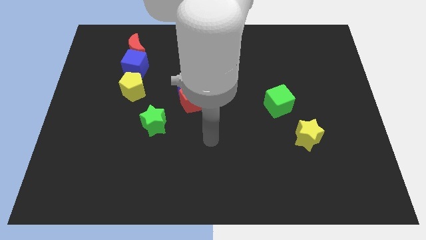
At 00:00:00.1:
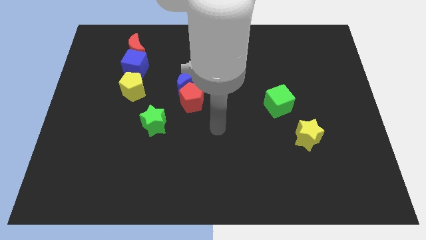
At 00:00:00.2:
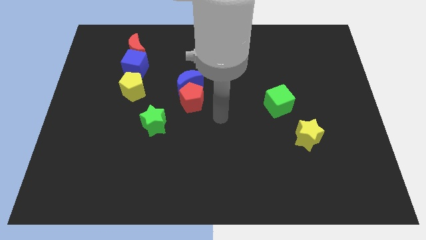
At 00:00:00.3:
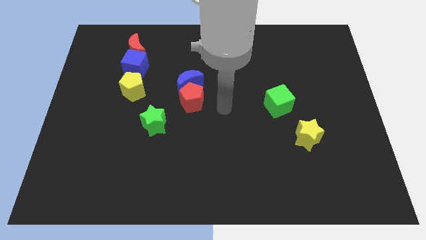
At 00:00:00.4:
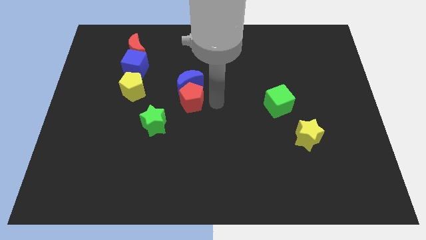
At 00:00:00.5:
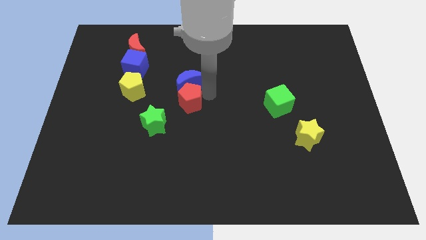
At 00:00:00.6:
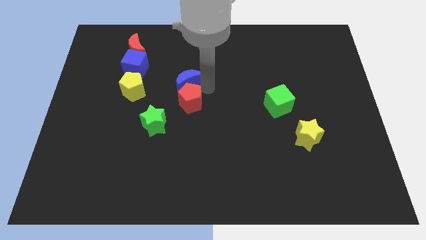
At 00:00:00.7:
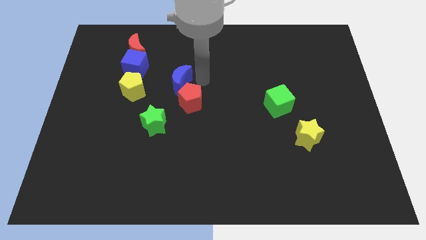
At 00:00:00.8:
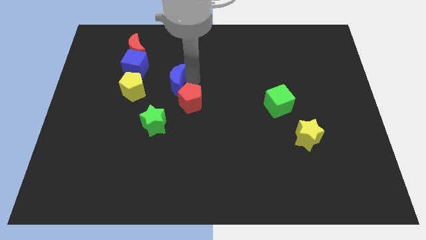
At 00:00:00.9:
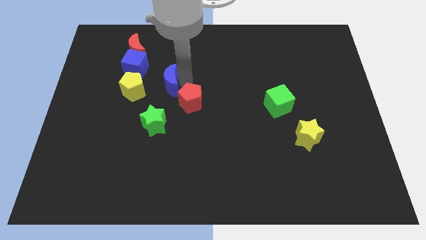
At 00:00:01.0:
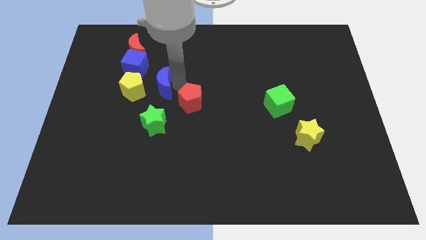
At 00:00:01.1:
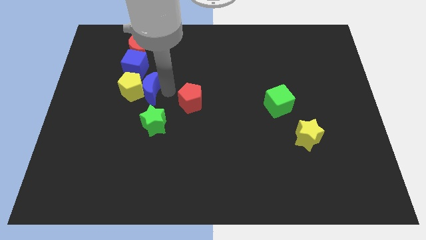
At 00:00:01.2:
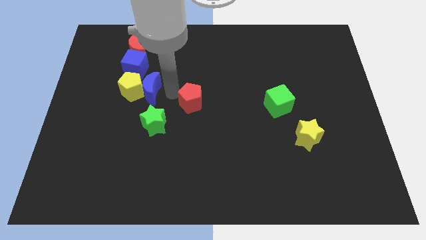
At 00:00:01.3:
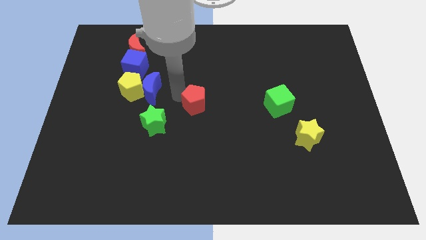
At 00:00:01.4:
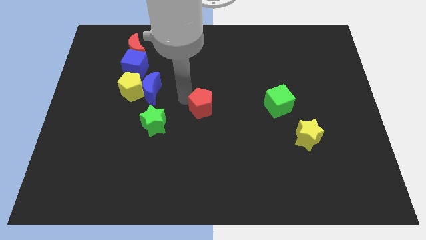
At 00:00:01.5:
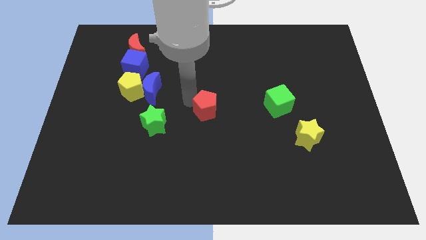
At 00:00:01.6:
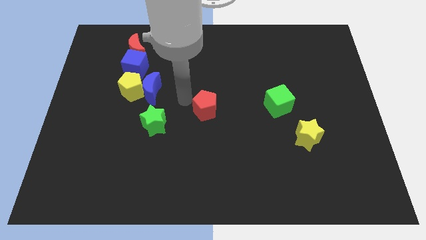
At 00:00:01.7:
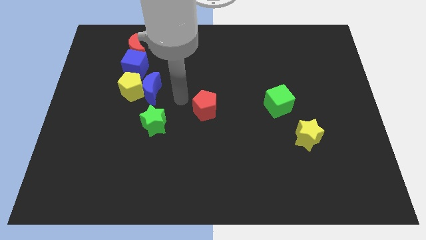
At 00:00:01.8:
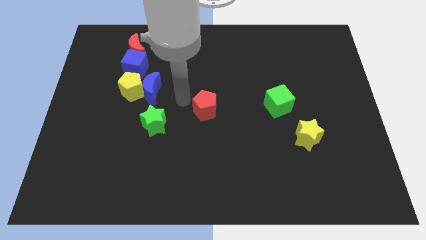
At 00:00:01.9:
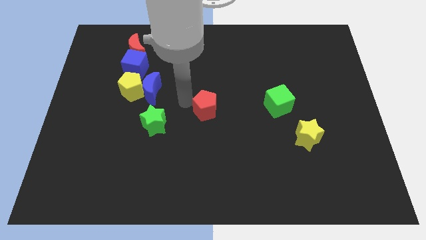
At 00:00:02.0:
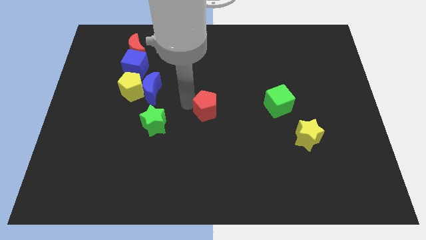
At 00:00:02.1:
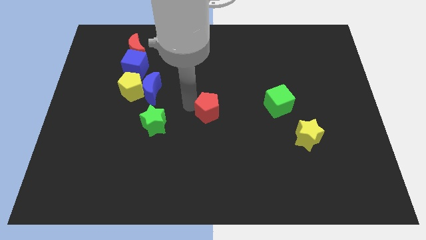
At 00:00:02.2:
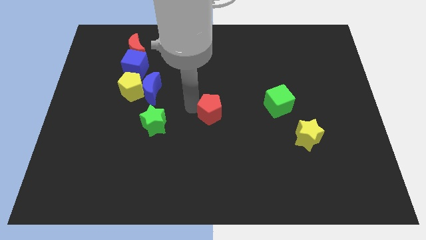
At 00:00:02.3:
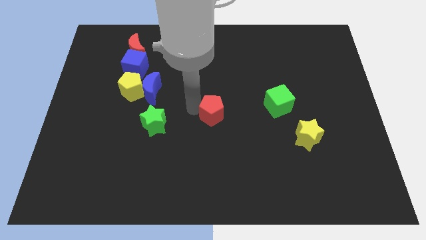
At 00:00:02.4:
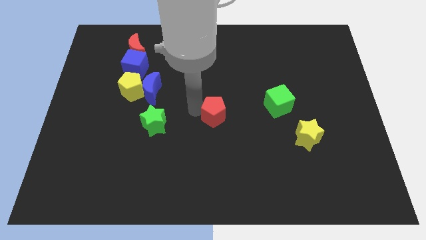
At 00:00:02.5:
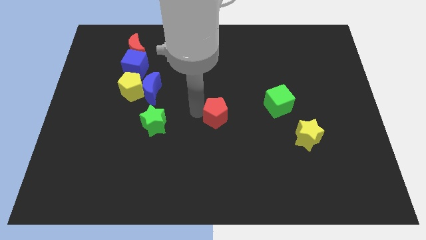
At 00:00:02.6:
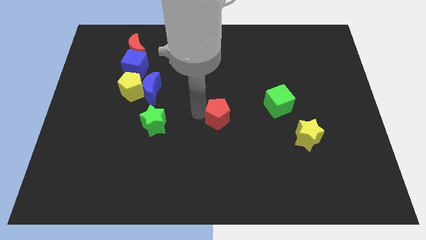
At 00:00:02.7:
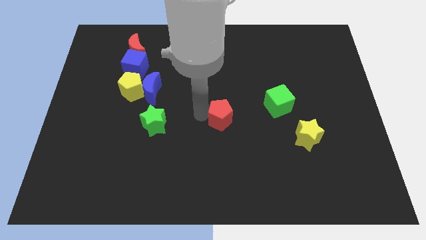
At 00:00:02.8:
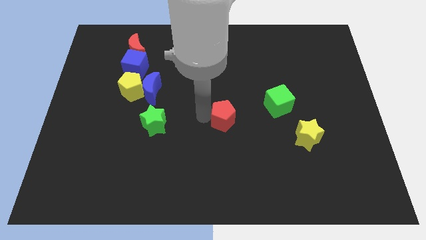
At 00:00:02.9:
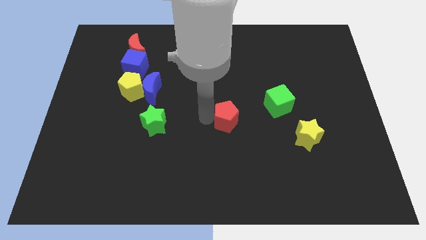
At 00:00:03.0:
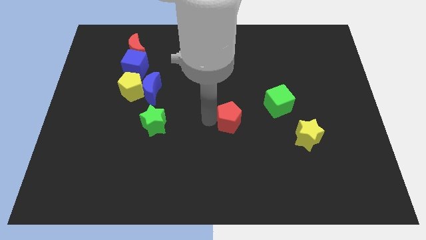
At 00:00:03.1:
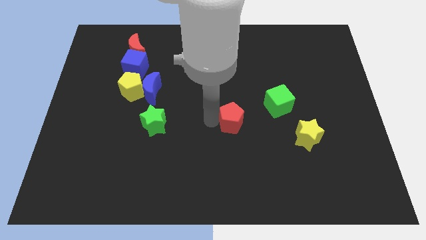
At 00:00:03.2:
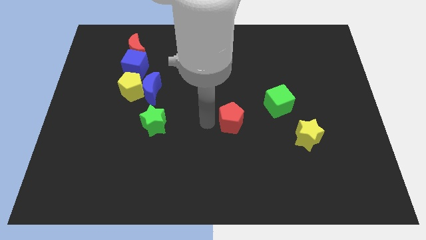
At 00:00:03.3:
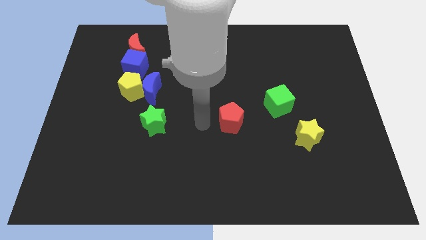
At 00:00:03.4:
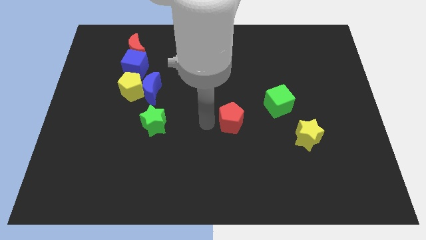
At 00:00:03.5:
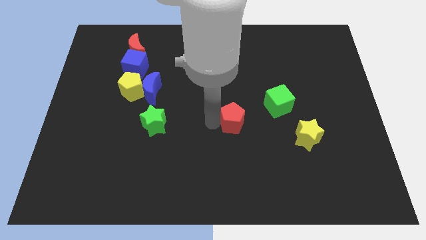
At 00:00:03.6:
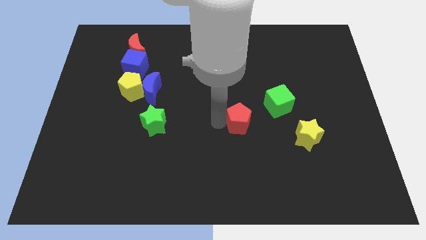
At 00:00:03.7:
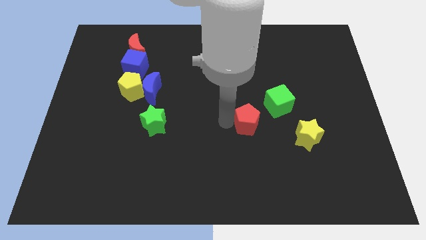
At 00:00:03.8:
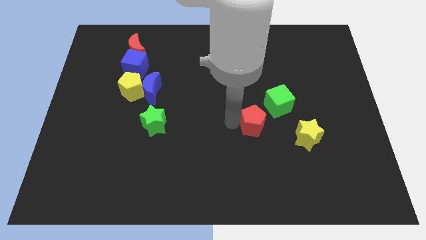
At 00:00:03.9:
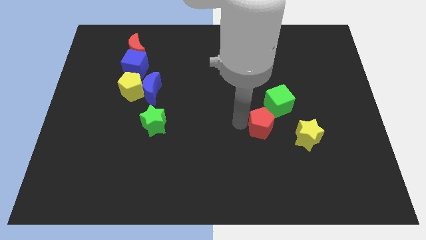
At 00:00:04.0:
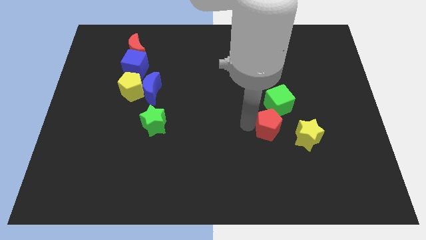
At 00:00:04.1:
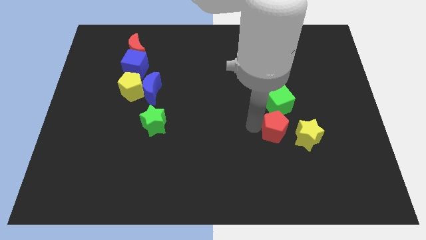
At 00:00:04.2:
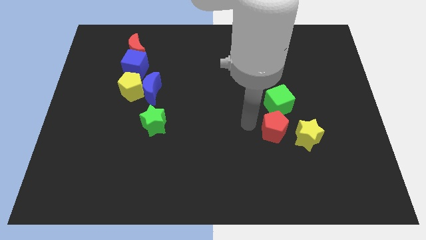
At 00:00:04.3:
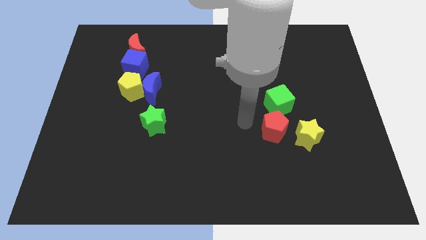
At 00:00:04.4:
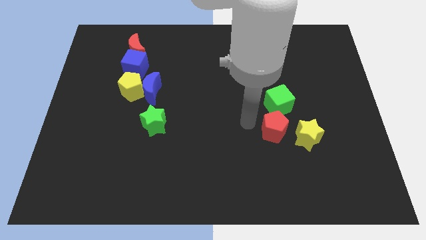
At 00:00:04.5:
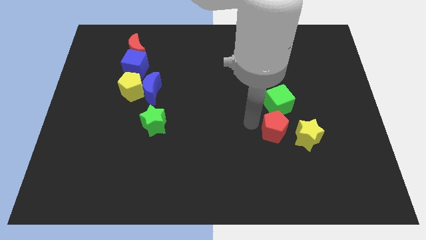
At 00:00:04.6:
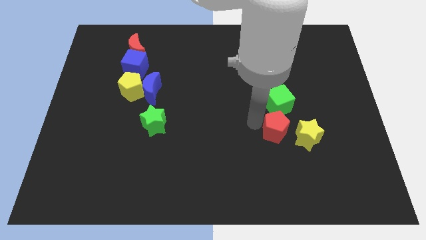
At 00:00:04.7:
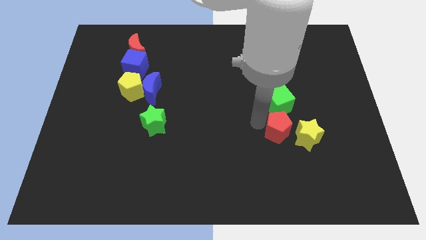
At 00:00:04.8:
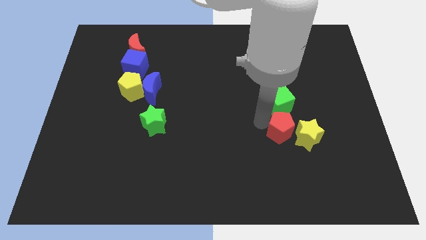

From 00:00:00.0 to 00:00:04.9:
move the red pentagon close to the yellow star

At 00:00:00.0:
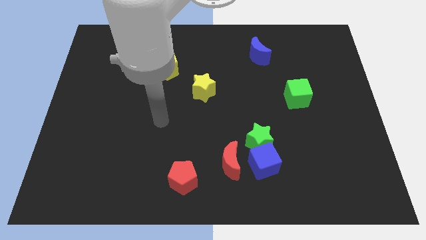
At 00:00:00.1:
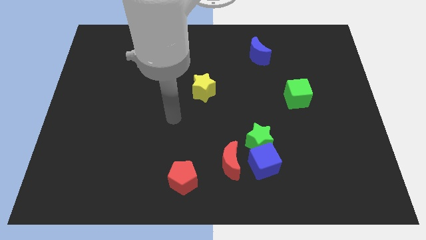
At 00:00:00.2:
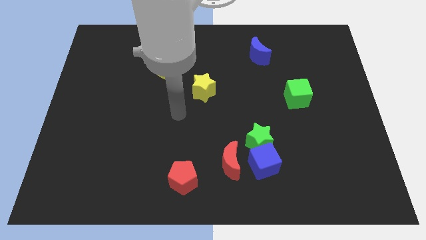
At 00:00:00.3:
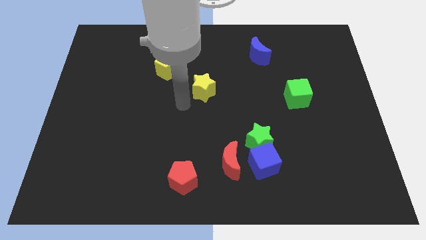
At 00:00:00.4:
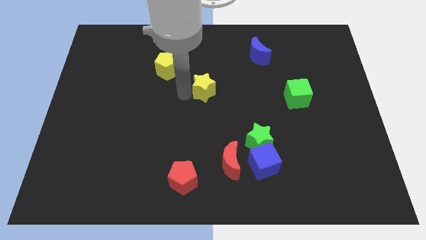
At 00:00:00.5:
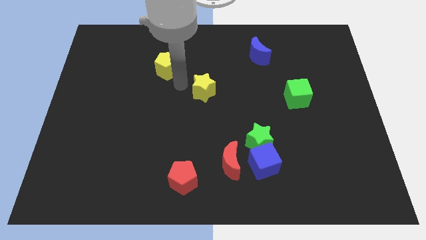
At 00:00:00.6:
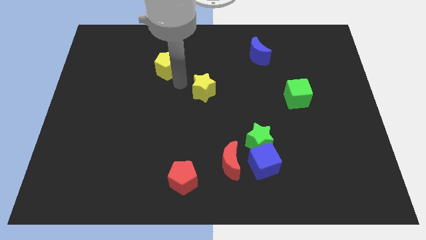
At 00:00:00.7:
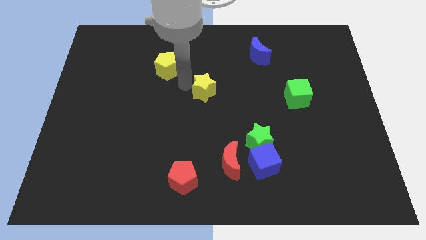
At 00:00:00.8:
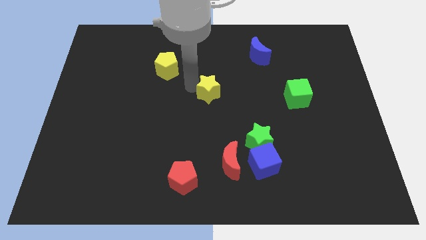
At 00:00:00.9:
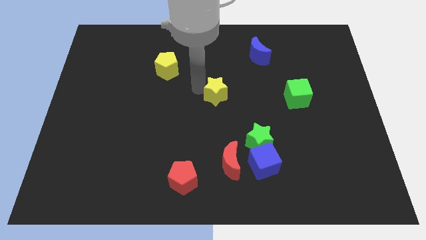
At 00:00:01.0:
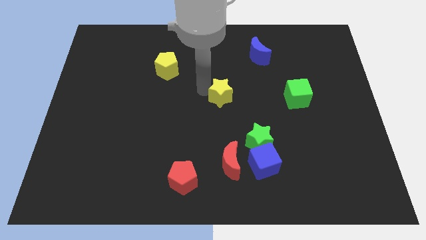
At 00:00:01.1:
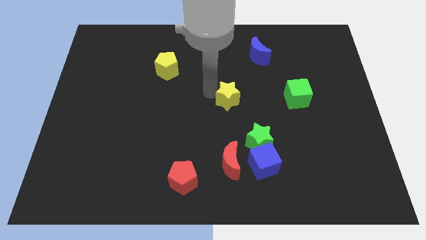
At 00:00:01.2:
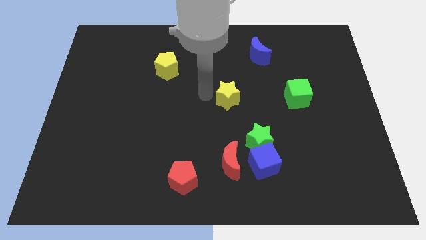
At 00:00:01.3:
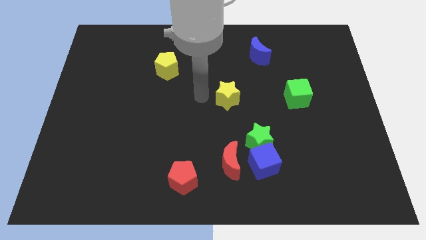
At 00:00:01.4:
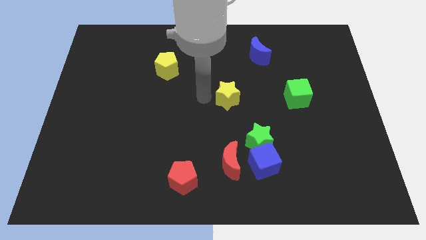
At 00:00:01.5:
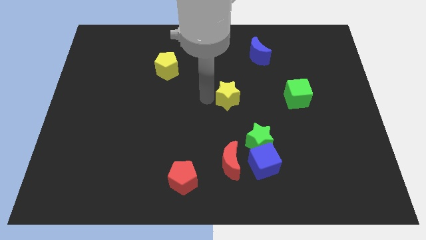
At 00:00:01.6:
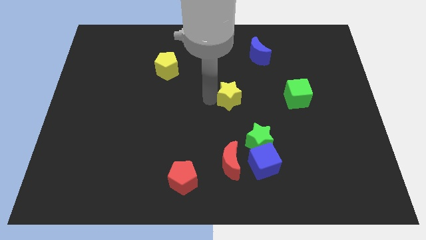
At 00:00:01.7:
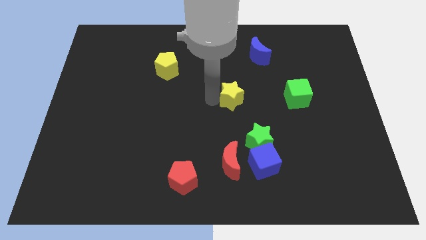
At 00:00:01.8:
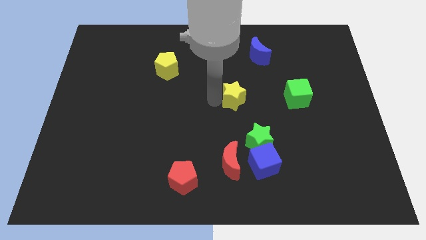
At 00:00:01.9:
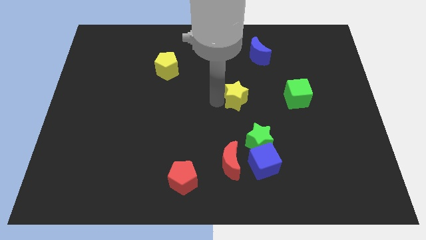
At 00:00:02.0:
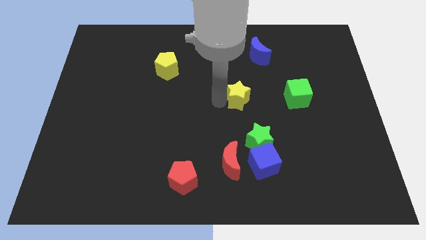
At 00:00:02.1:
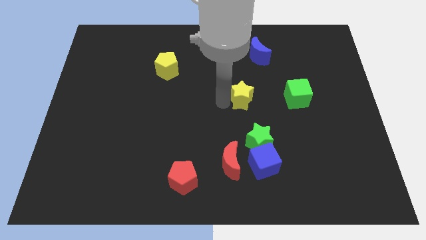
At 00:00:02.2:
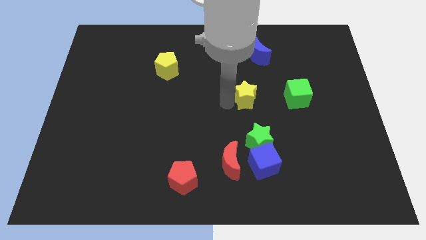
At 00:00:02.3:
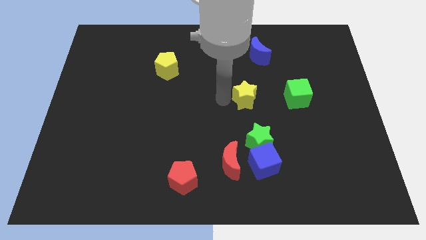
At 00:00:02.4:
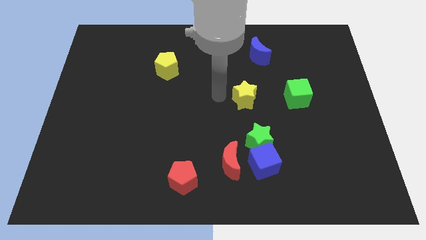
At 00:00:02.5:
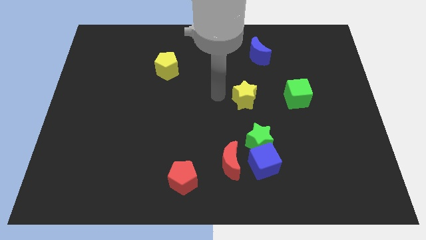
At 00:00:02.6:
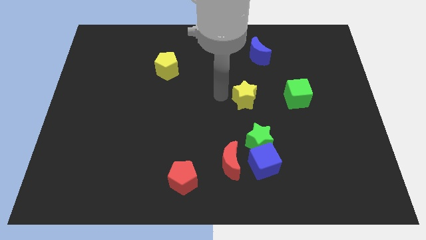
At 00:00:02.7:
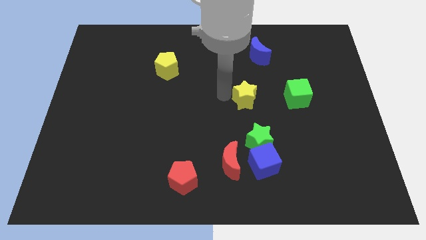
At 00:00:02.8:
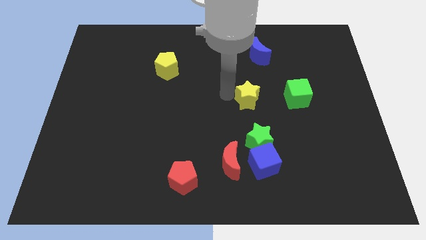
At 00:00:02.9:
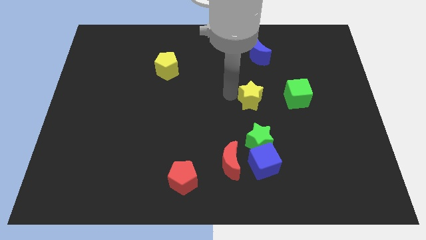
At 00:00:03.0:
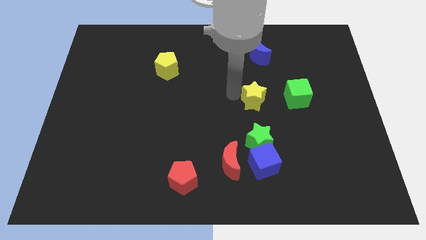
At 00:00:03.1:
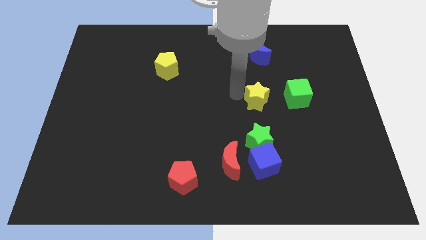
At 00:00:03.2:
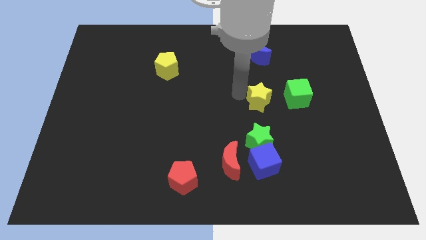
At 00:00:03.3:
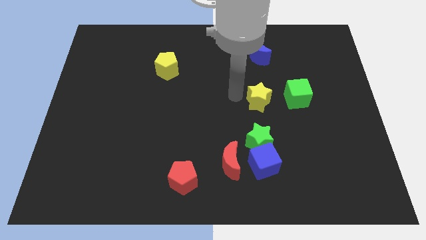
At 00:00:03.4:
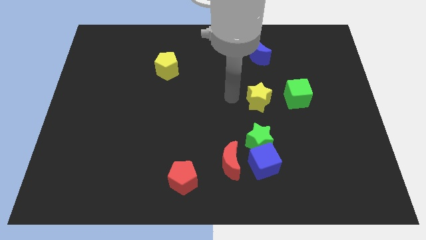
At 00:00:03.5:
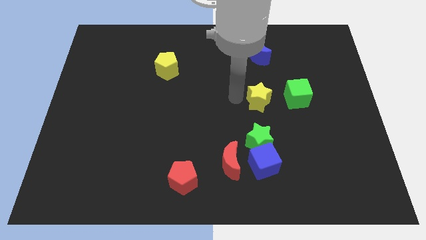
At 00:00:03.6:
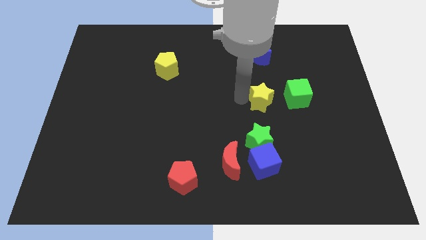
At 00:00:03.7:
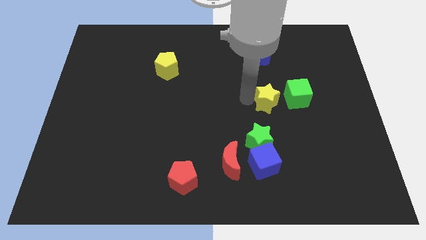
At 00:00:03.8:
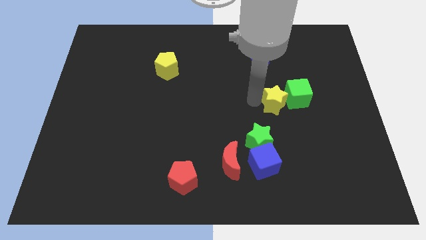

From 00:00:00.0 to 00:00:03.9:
put the yellow star towards the green cube
